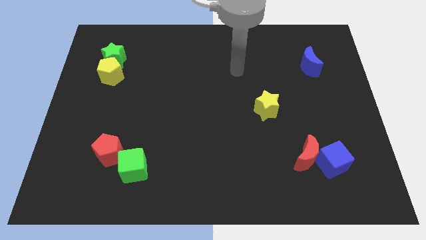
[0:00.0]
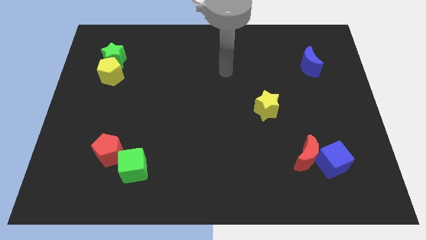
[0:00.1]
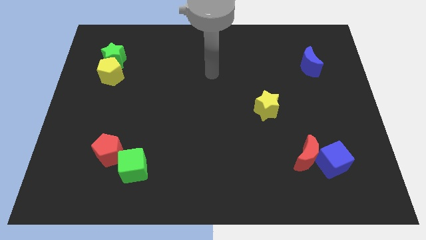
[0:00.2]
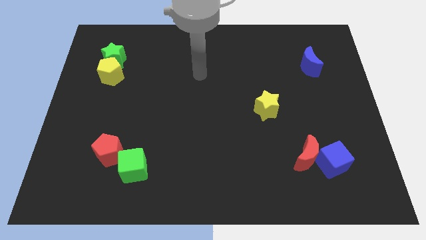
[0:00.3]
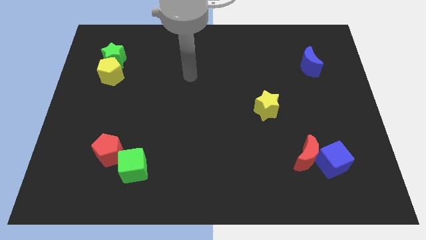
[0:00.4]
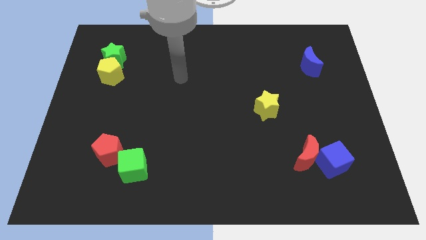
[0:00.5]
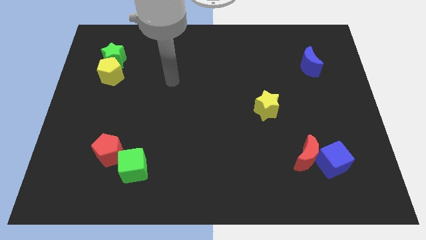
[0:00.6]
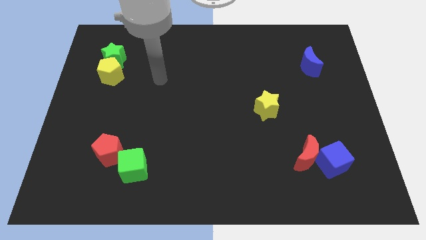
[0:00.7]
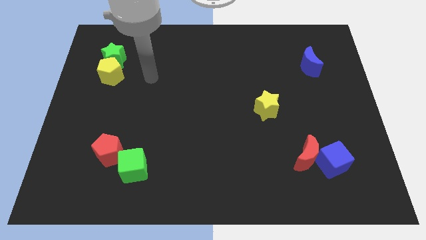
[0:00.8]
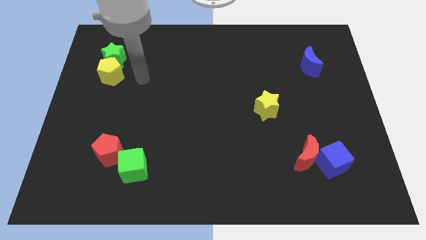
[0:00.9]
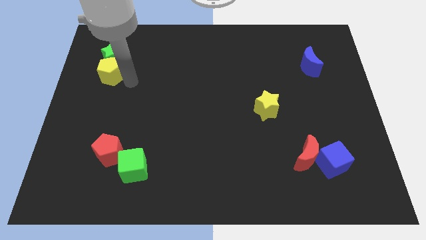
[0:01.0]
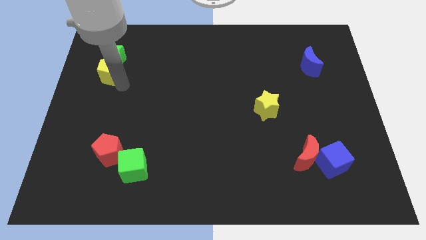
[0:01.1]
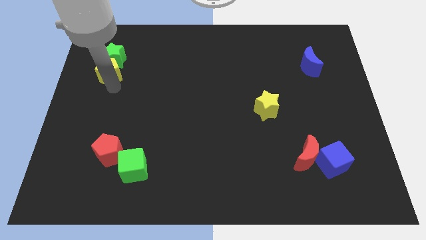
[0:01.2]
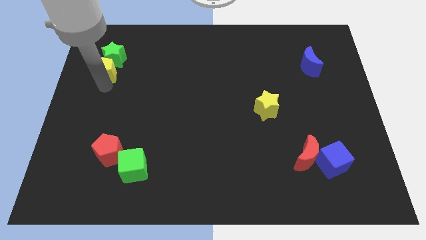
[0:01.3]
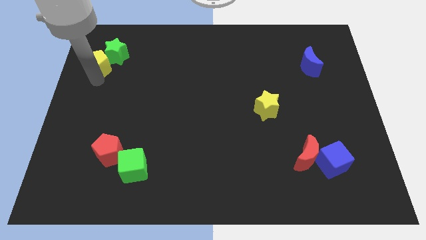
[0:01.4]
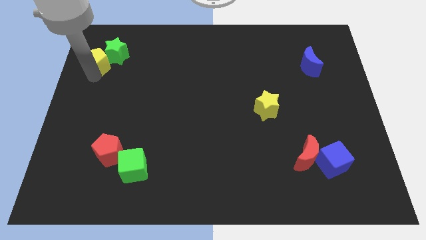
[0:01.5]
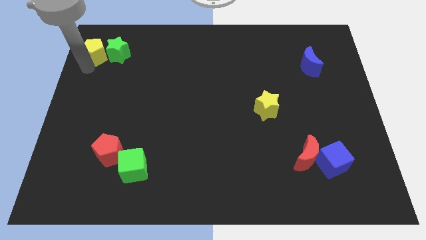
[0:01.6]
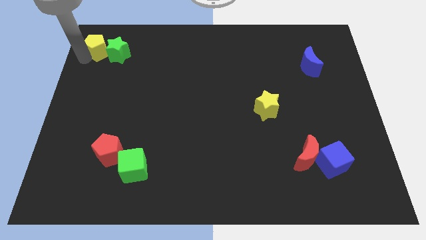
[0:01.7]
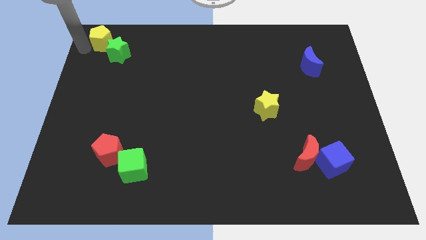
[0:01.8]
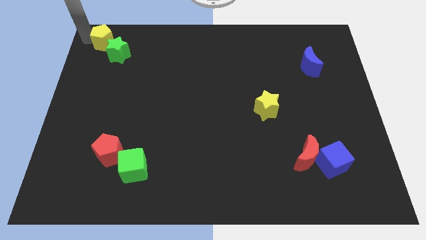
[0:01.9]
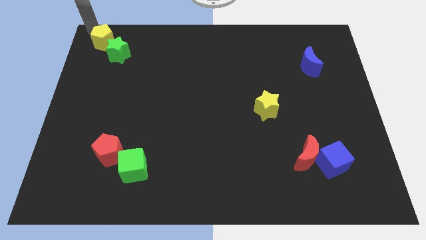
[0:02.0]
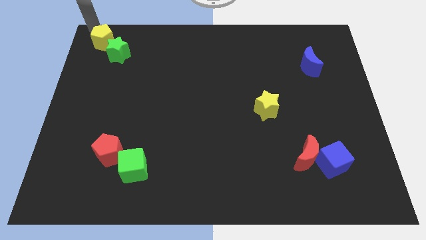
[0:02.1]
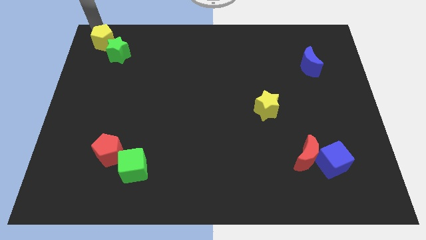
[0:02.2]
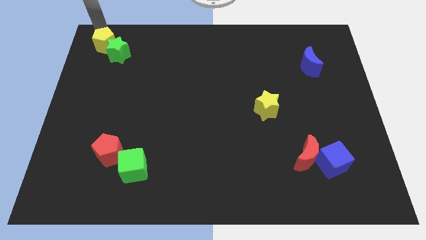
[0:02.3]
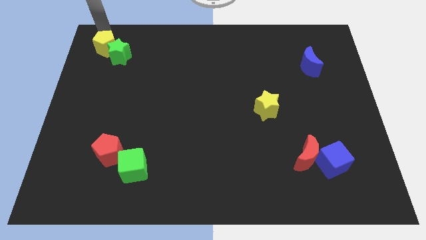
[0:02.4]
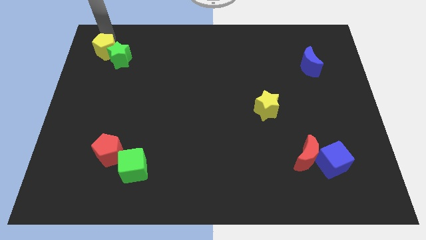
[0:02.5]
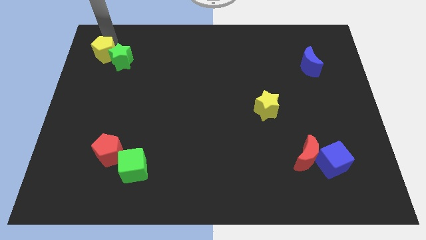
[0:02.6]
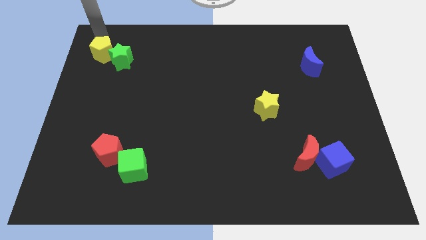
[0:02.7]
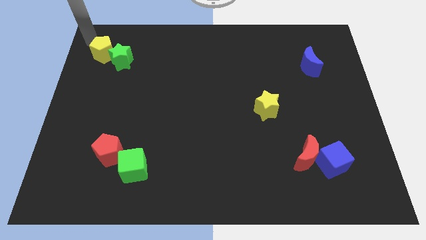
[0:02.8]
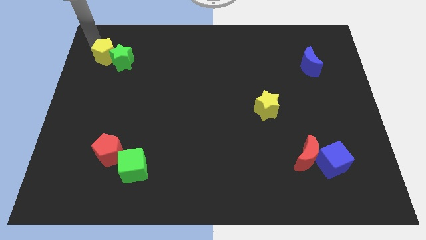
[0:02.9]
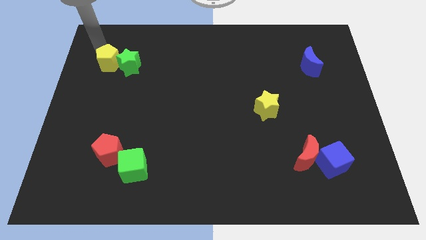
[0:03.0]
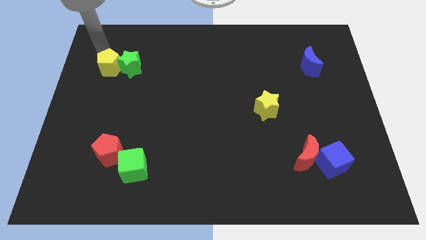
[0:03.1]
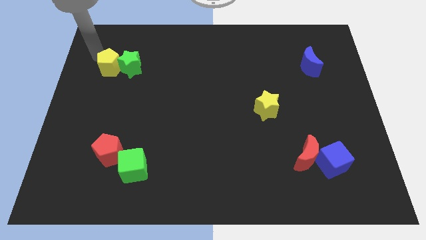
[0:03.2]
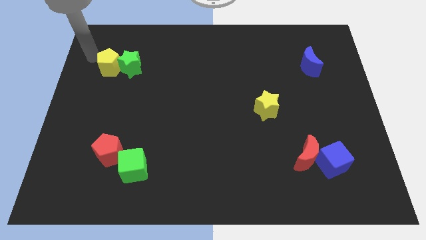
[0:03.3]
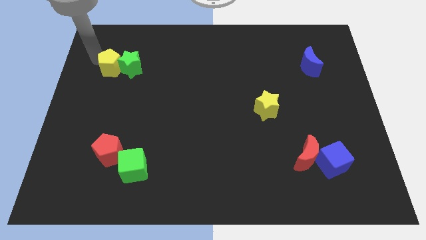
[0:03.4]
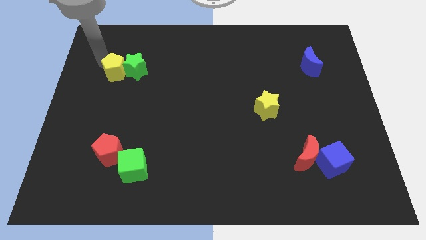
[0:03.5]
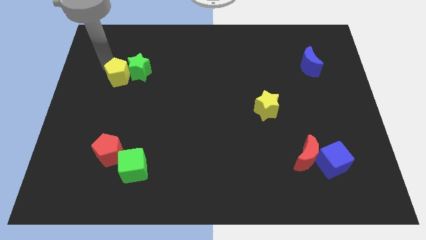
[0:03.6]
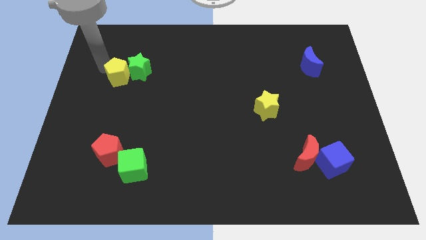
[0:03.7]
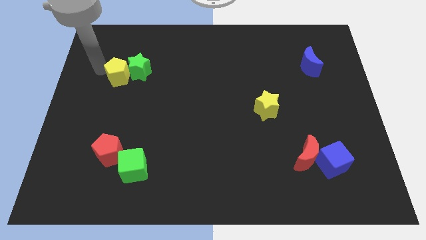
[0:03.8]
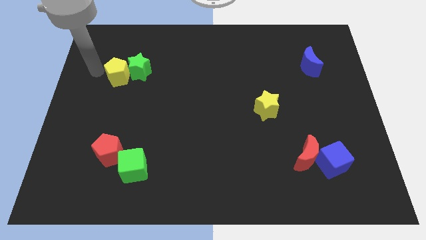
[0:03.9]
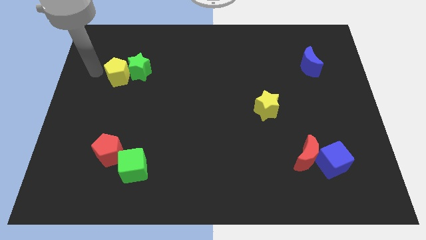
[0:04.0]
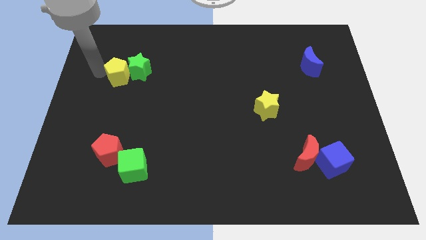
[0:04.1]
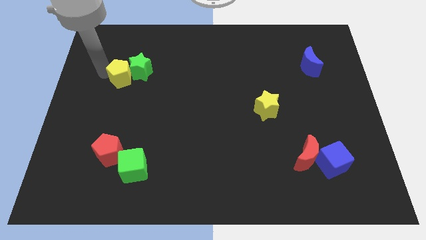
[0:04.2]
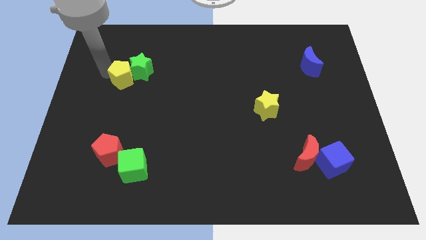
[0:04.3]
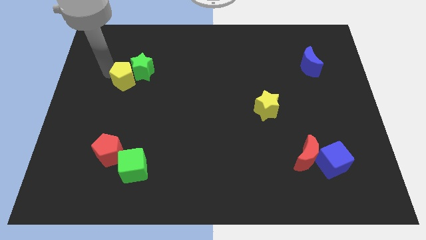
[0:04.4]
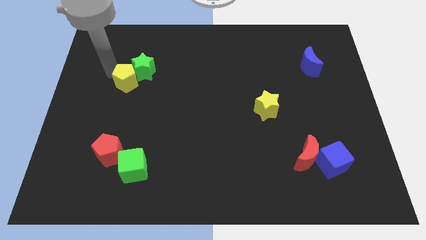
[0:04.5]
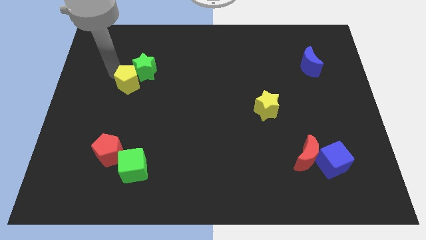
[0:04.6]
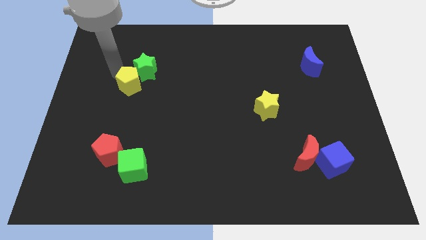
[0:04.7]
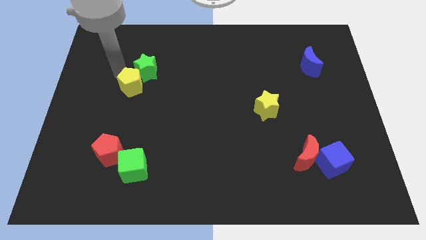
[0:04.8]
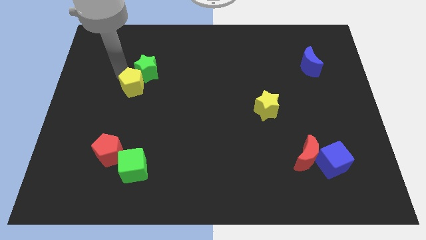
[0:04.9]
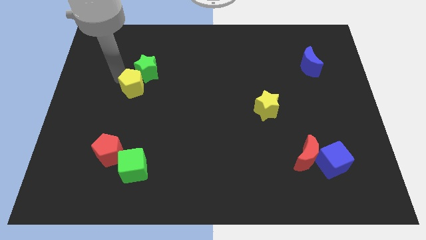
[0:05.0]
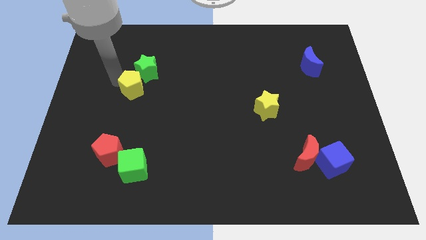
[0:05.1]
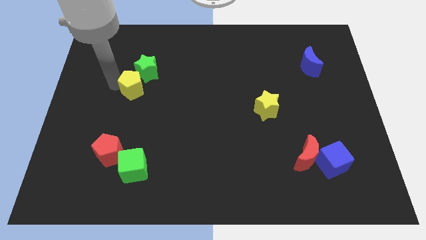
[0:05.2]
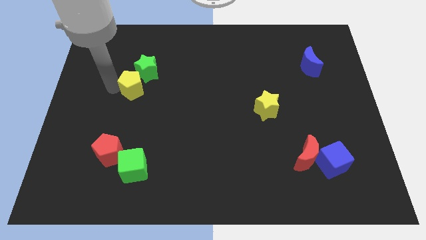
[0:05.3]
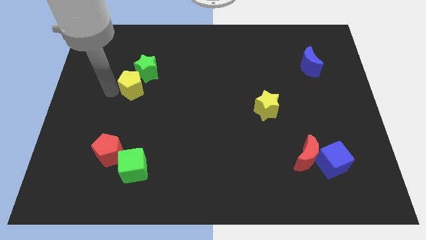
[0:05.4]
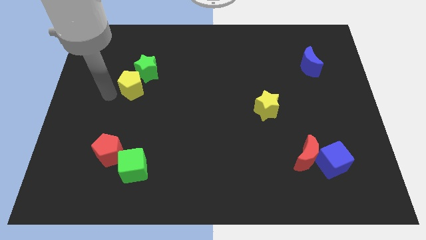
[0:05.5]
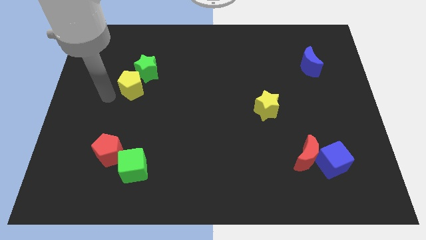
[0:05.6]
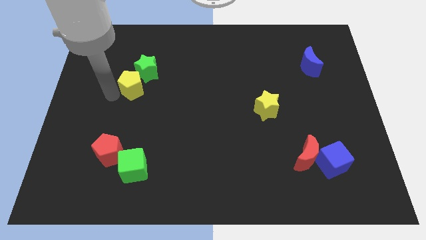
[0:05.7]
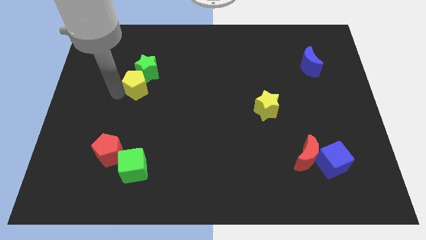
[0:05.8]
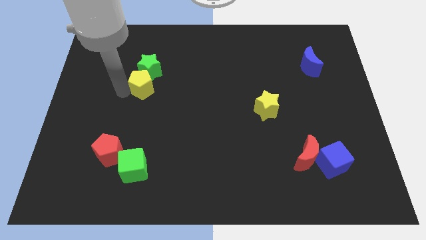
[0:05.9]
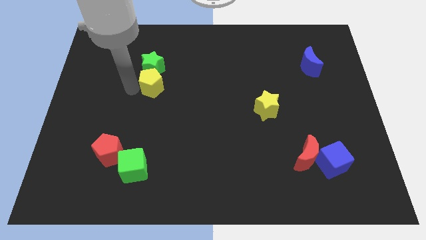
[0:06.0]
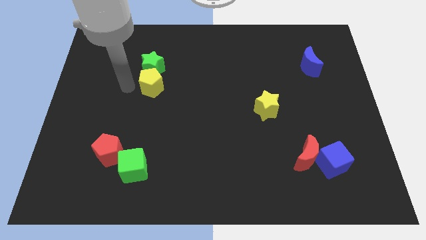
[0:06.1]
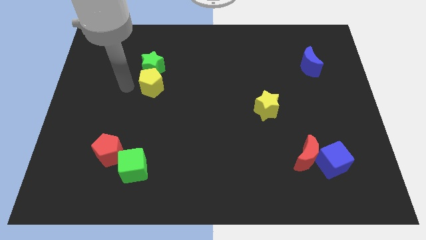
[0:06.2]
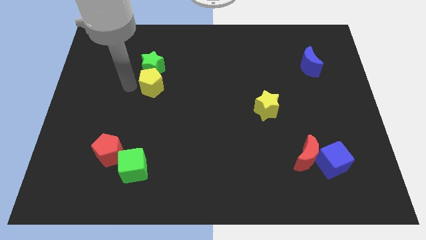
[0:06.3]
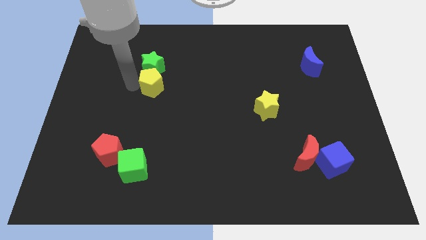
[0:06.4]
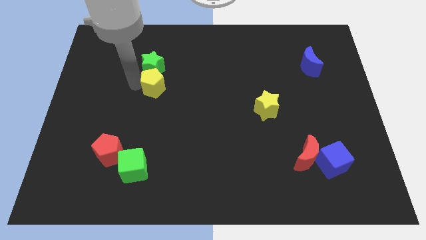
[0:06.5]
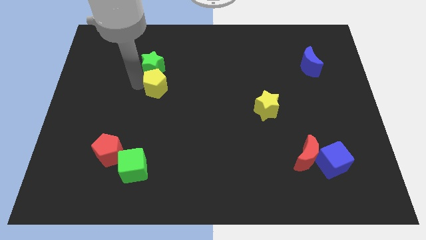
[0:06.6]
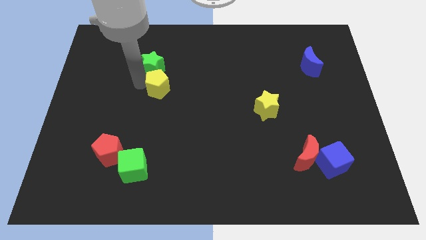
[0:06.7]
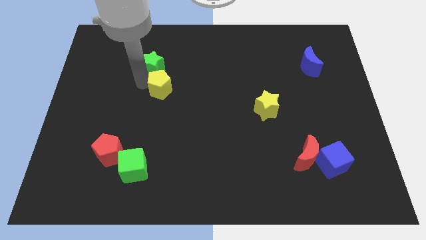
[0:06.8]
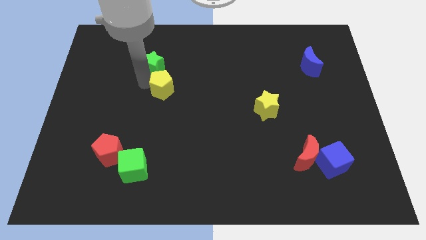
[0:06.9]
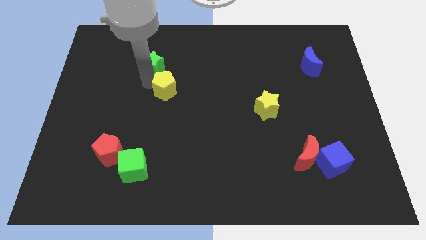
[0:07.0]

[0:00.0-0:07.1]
put the yellow pentagon to the middle
